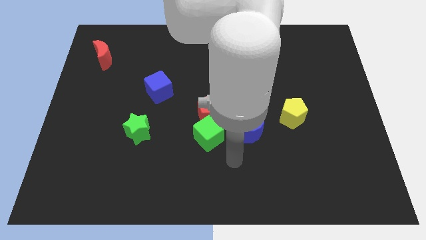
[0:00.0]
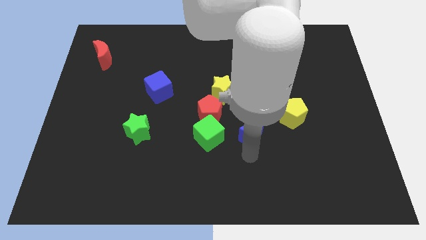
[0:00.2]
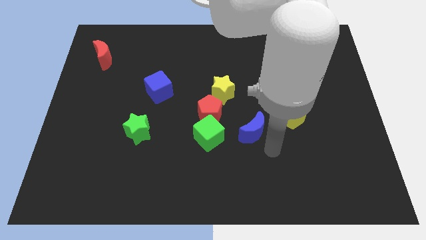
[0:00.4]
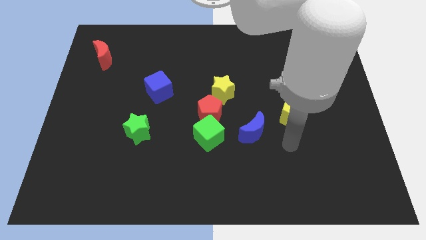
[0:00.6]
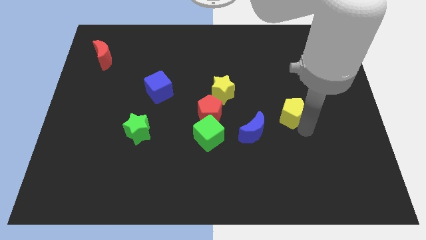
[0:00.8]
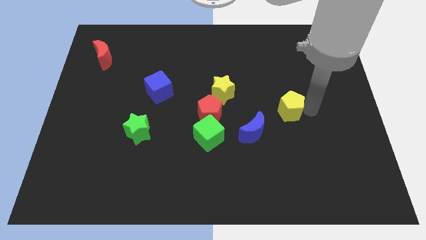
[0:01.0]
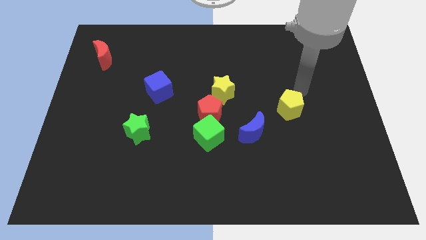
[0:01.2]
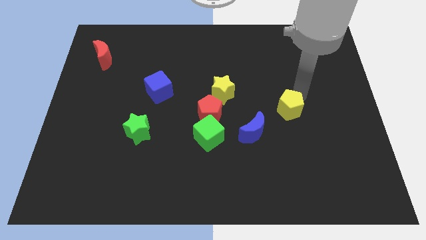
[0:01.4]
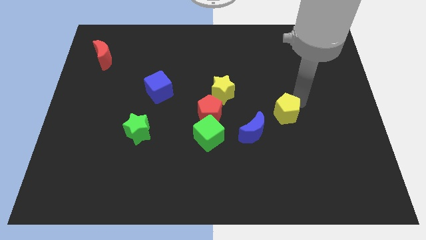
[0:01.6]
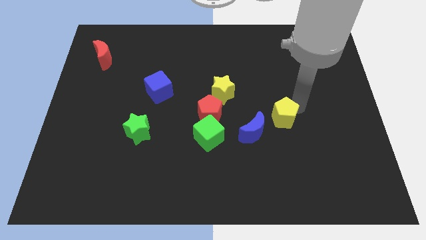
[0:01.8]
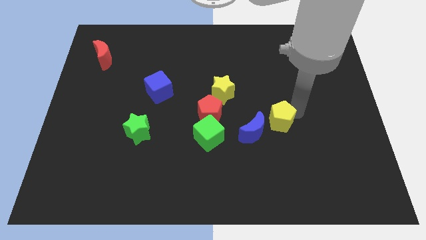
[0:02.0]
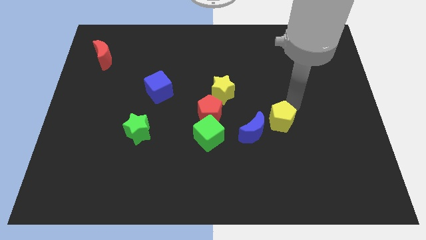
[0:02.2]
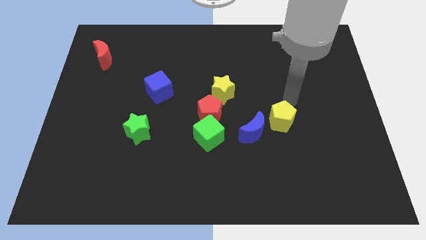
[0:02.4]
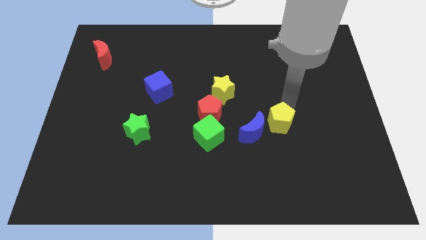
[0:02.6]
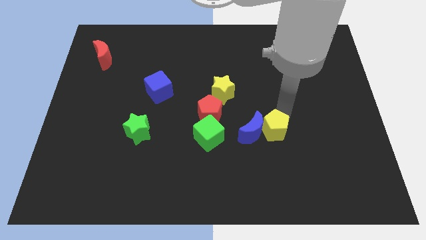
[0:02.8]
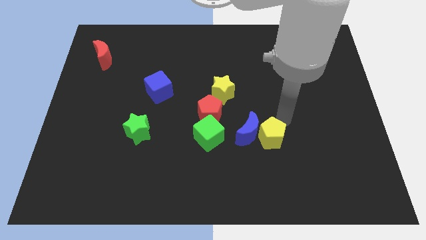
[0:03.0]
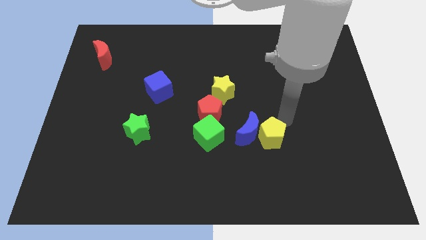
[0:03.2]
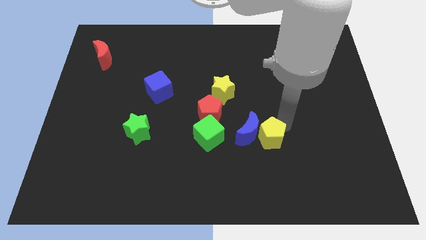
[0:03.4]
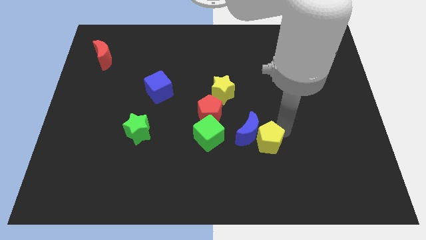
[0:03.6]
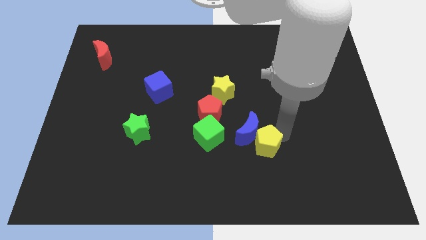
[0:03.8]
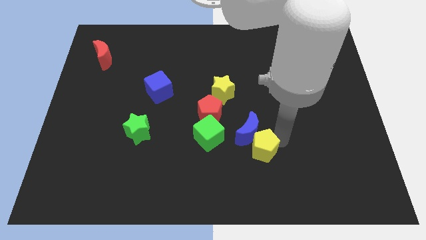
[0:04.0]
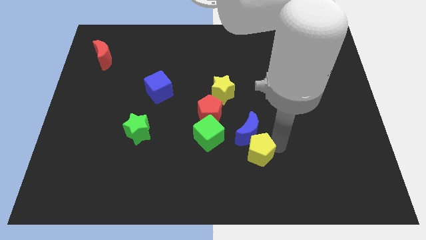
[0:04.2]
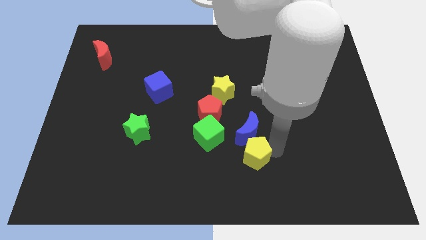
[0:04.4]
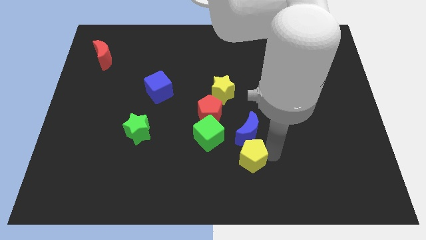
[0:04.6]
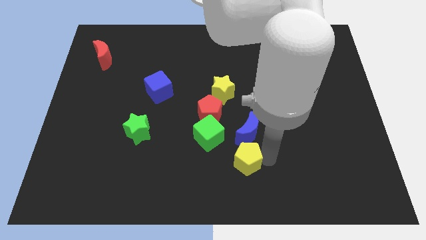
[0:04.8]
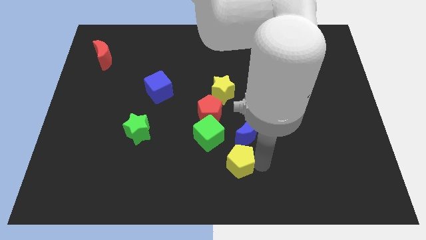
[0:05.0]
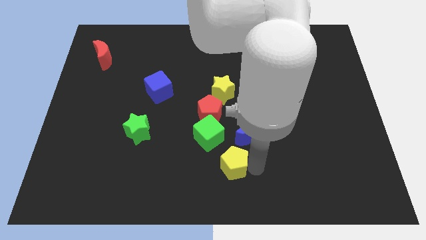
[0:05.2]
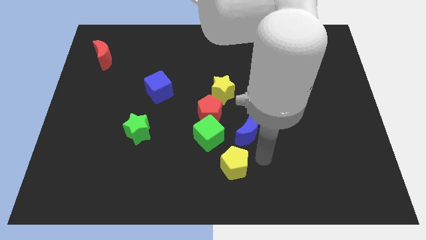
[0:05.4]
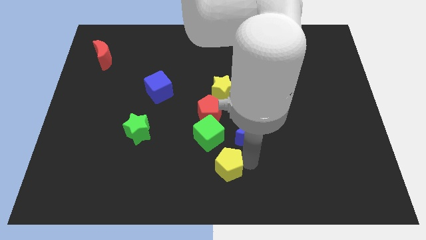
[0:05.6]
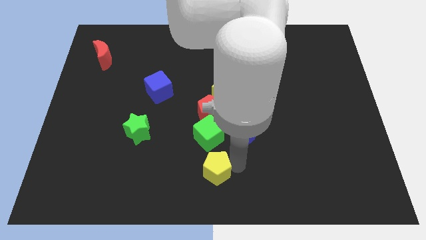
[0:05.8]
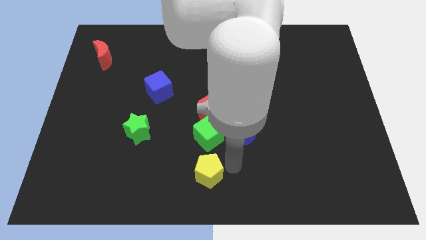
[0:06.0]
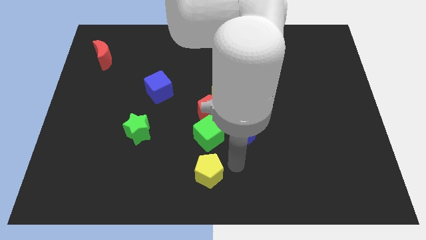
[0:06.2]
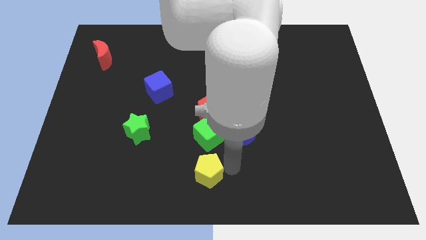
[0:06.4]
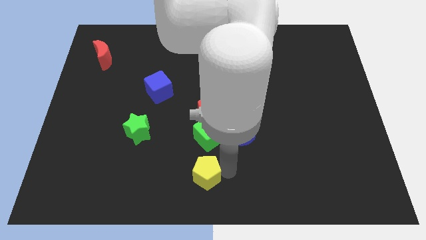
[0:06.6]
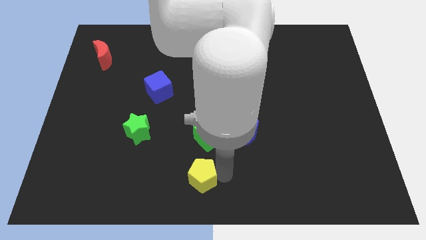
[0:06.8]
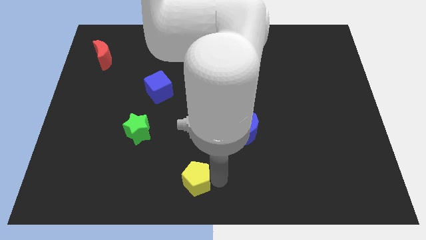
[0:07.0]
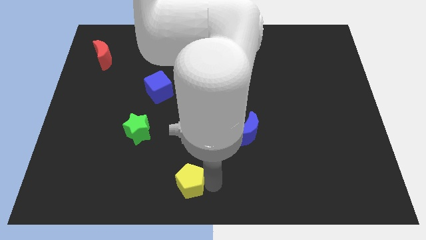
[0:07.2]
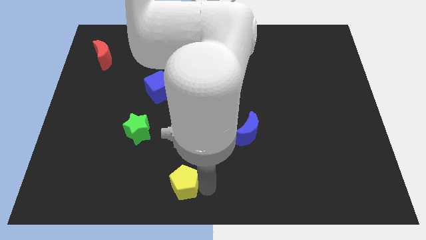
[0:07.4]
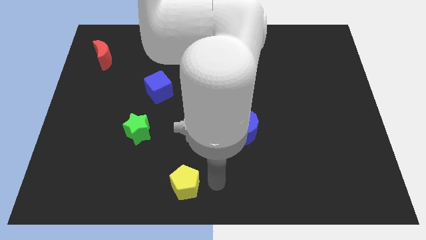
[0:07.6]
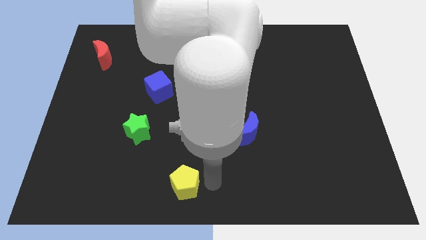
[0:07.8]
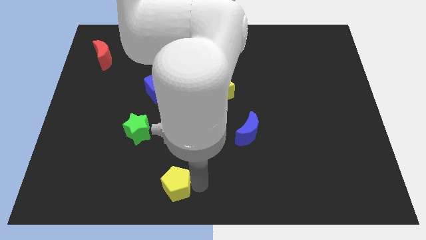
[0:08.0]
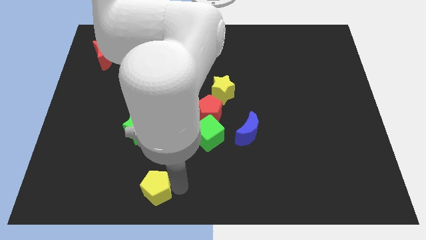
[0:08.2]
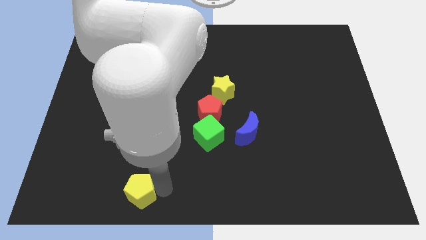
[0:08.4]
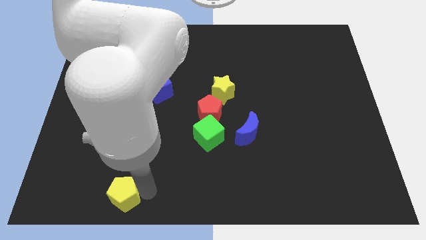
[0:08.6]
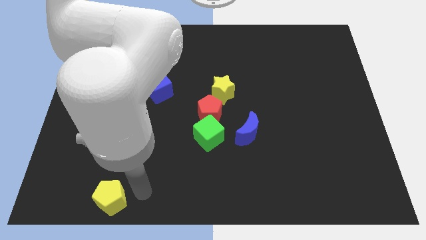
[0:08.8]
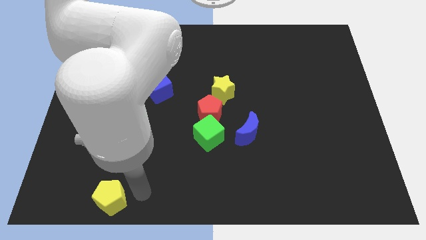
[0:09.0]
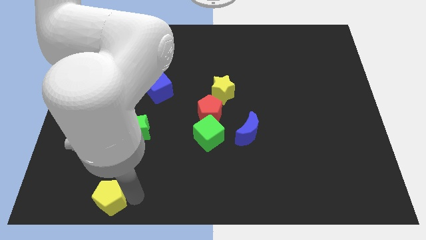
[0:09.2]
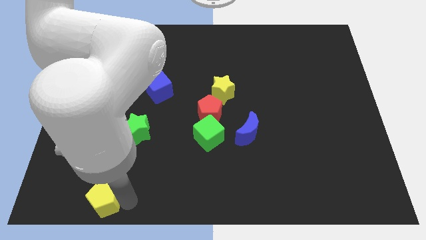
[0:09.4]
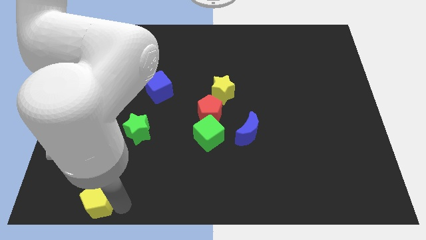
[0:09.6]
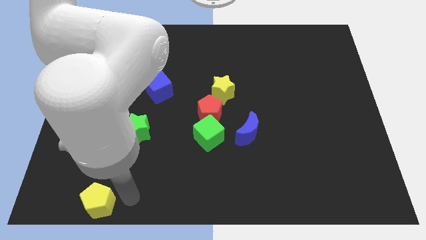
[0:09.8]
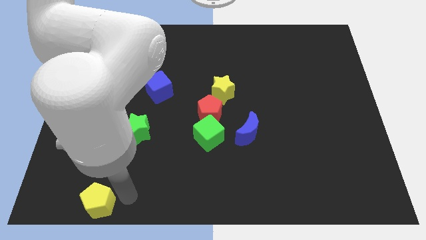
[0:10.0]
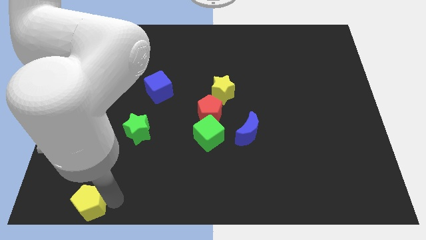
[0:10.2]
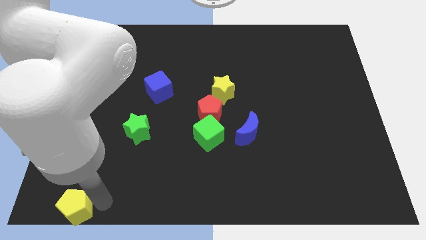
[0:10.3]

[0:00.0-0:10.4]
slide the yellow pentagon to the bottom left corner

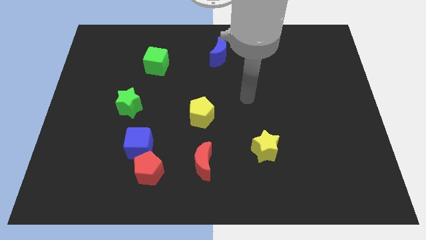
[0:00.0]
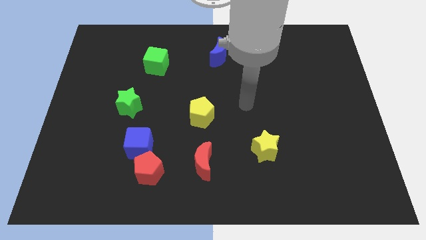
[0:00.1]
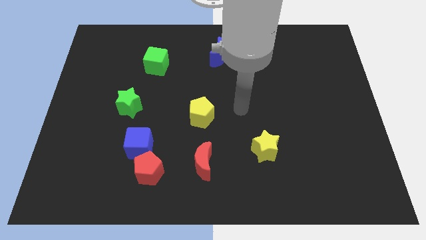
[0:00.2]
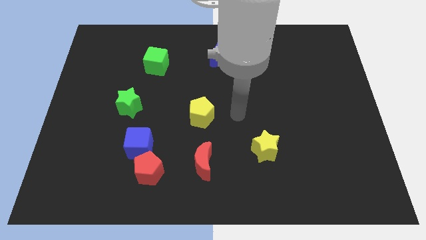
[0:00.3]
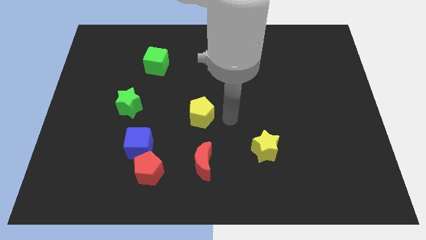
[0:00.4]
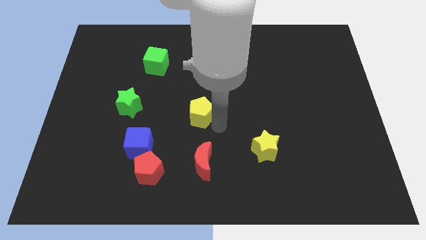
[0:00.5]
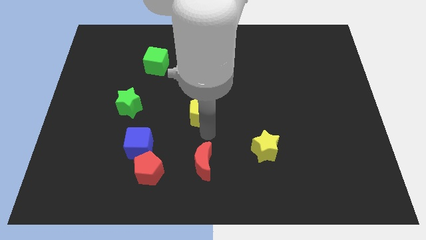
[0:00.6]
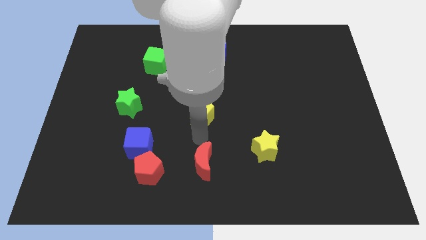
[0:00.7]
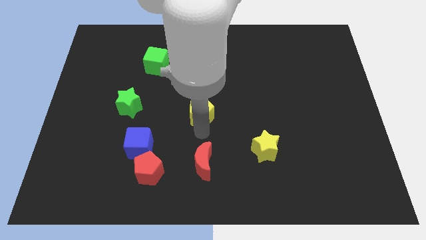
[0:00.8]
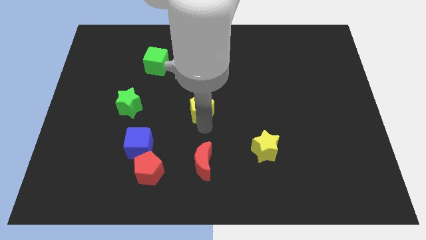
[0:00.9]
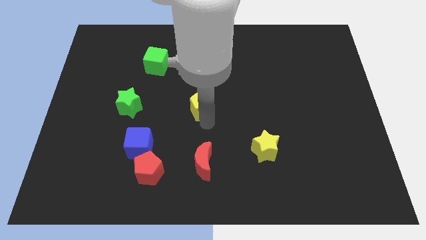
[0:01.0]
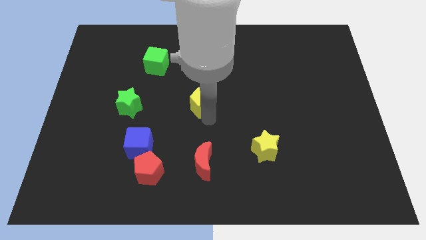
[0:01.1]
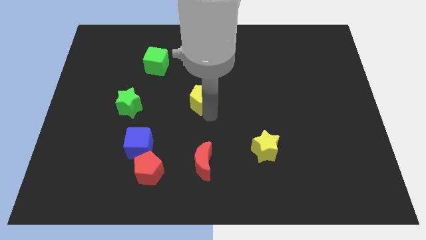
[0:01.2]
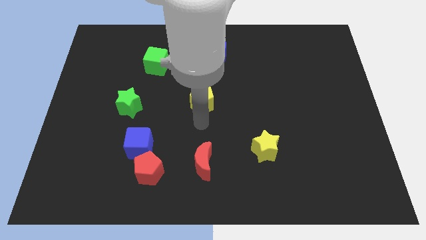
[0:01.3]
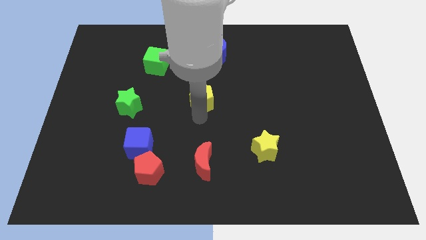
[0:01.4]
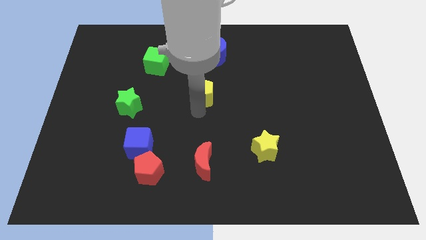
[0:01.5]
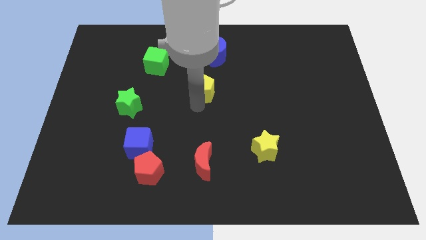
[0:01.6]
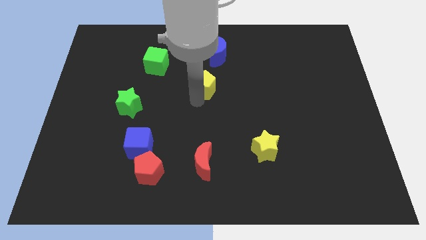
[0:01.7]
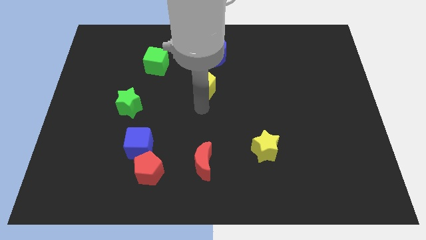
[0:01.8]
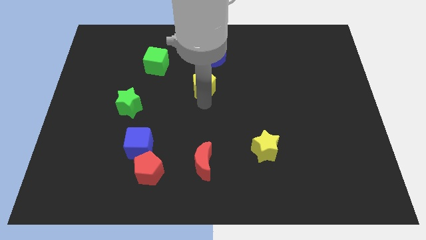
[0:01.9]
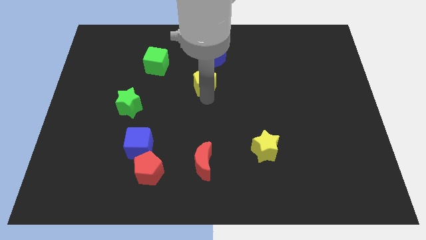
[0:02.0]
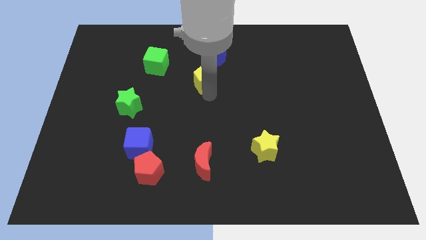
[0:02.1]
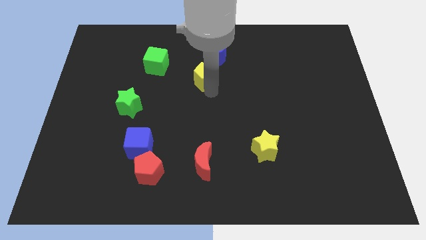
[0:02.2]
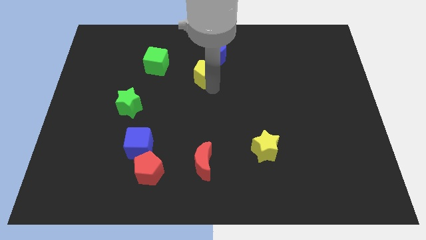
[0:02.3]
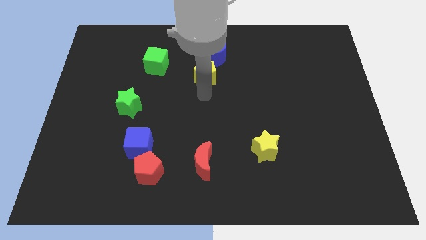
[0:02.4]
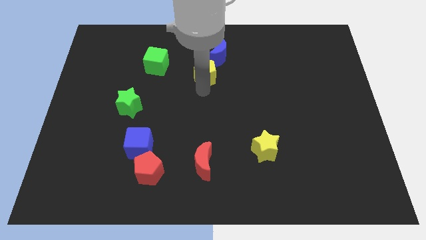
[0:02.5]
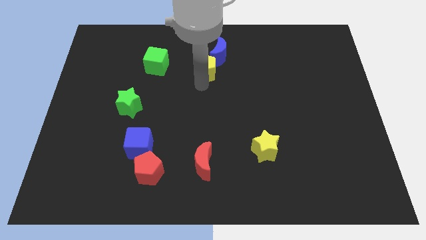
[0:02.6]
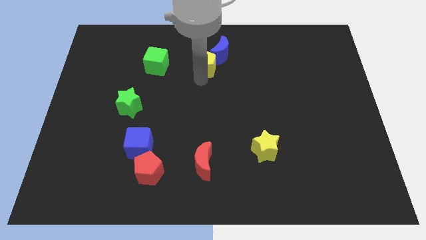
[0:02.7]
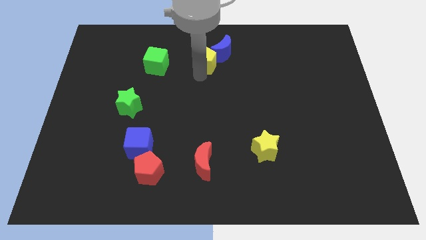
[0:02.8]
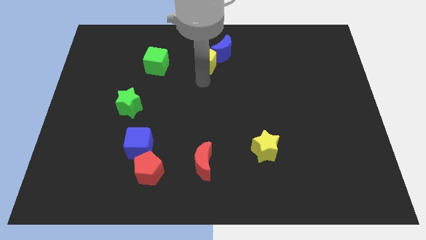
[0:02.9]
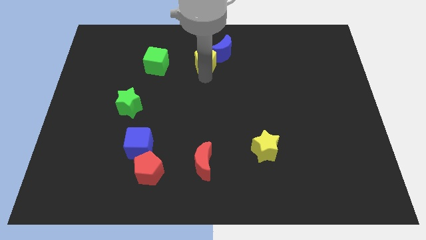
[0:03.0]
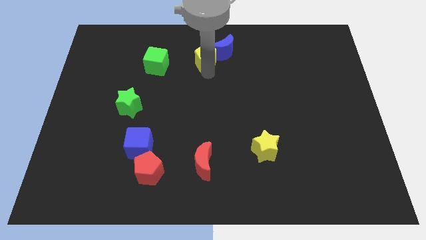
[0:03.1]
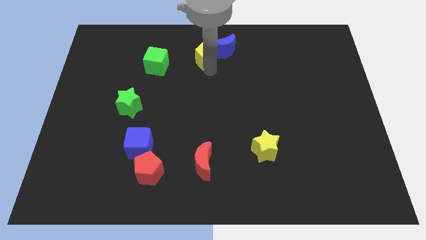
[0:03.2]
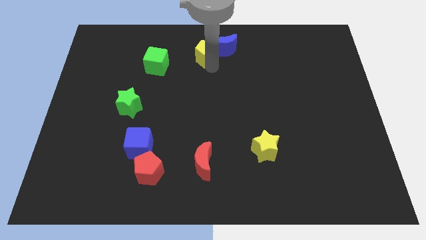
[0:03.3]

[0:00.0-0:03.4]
slide the yellow pentagon to the towards your base
